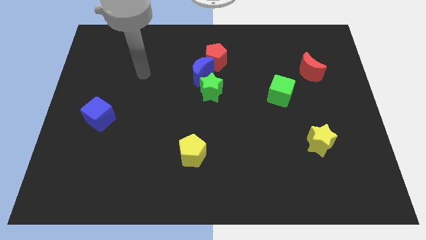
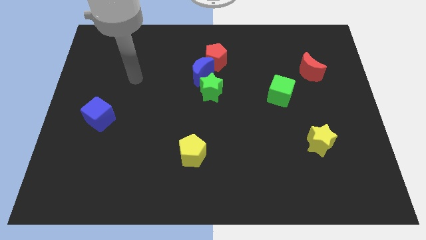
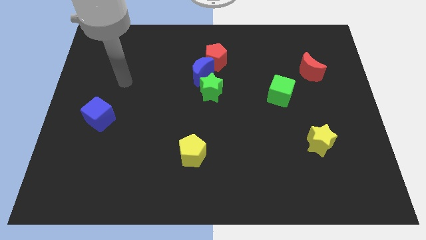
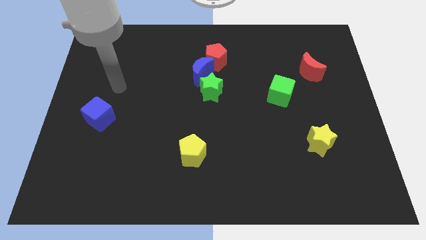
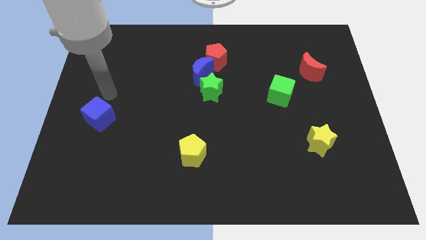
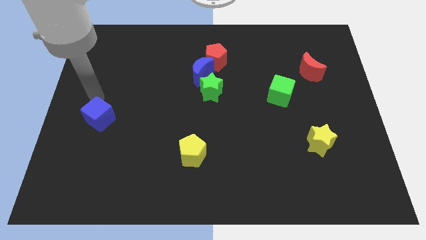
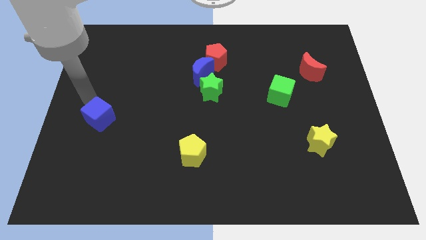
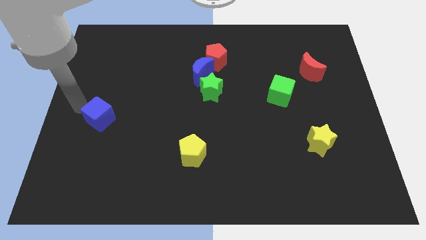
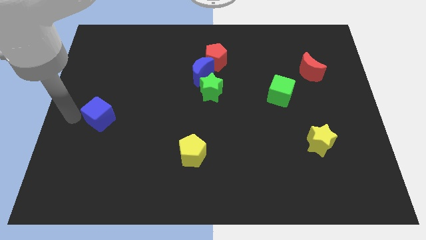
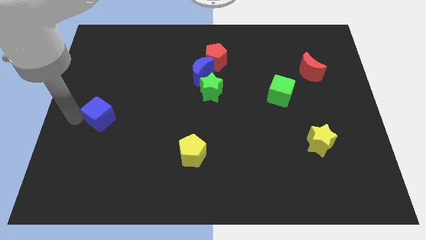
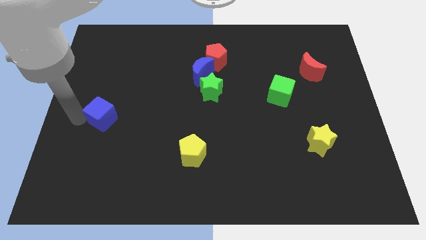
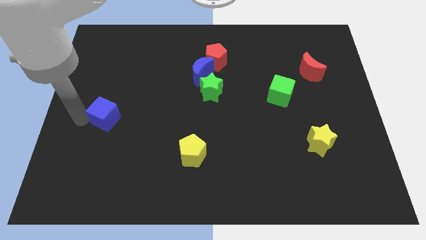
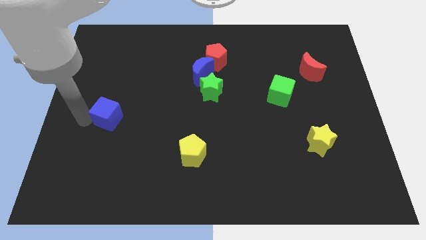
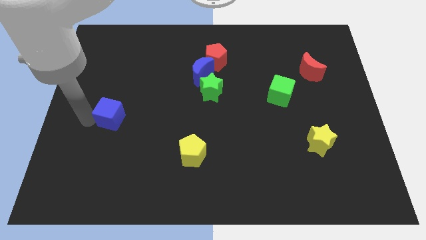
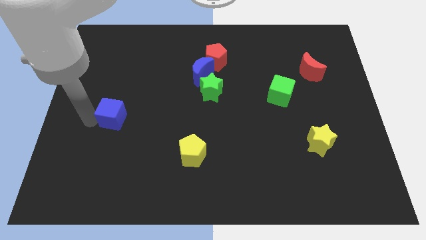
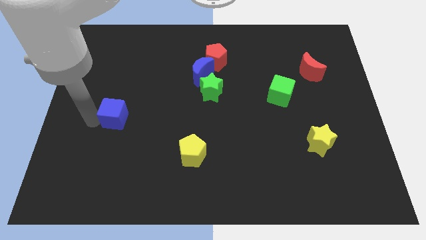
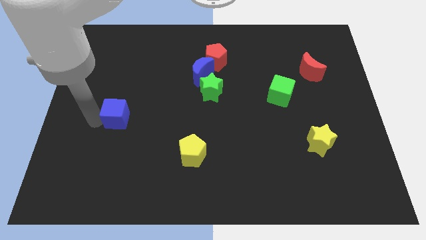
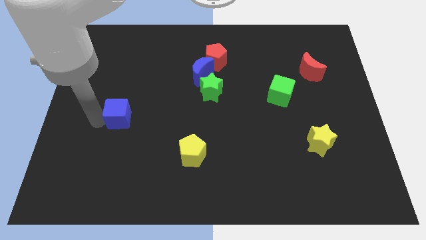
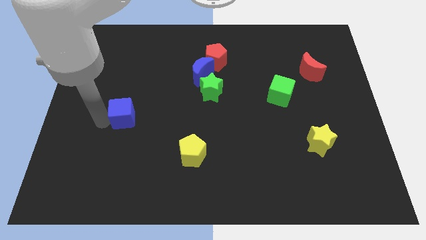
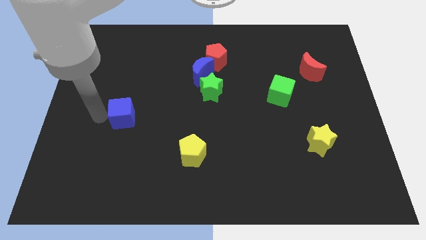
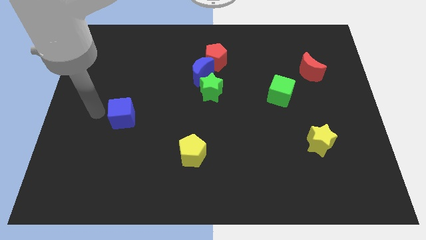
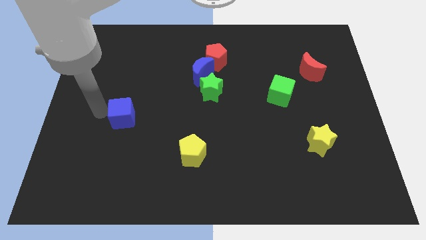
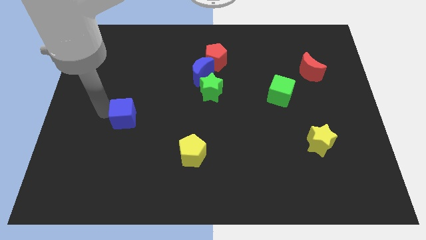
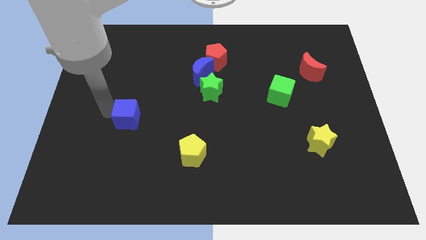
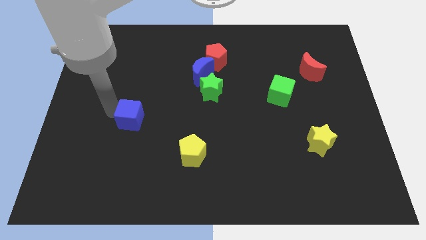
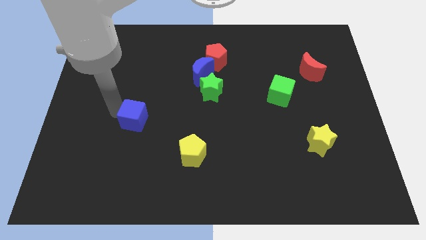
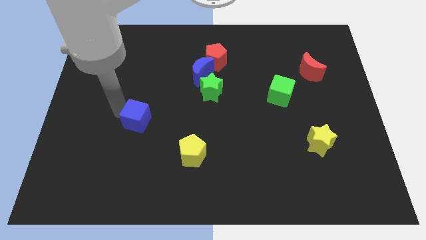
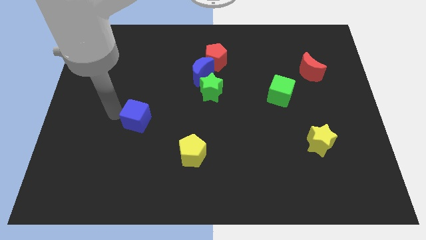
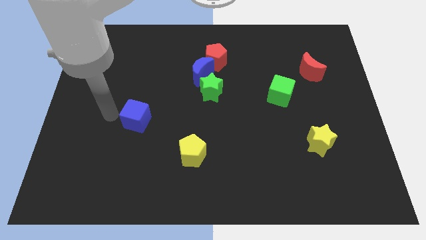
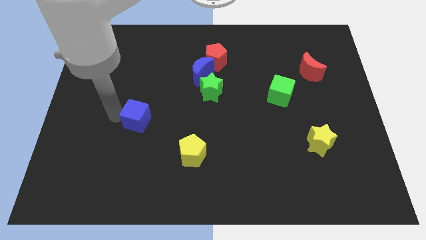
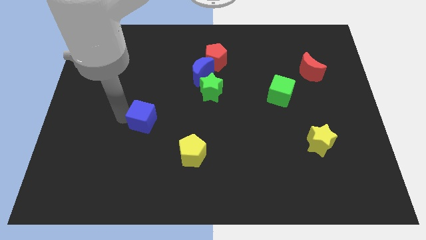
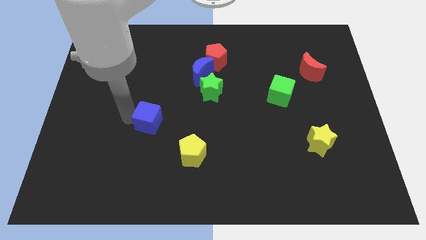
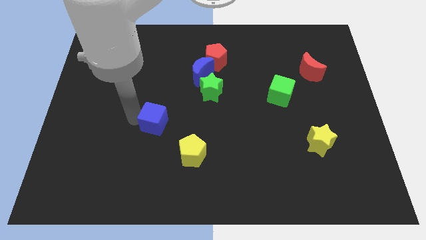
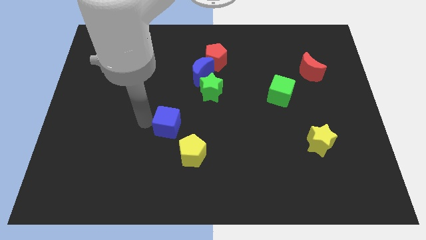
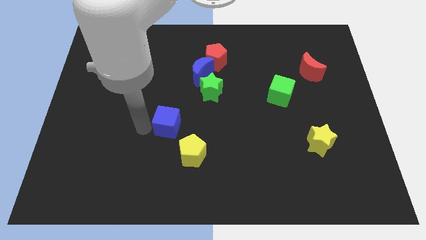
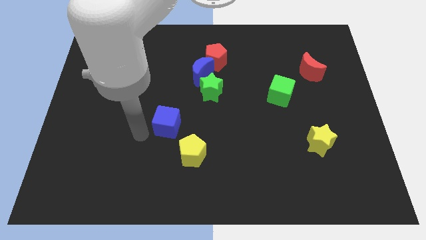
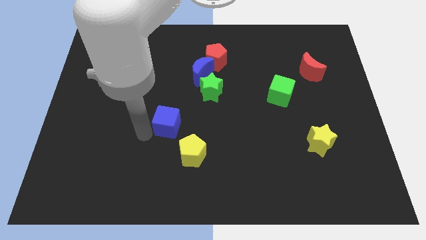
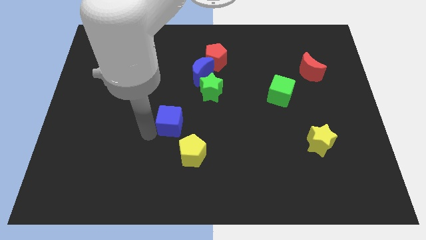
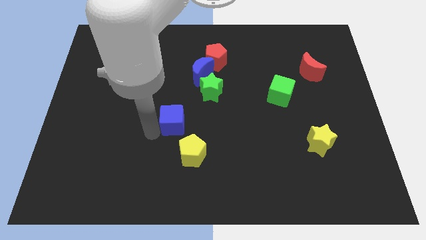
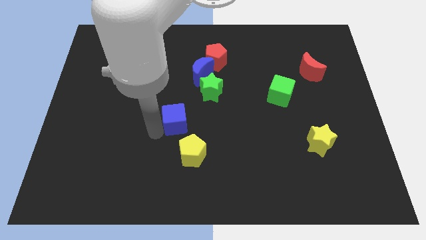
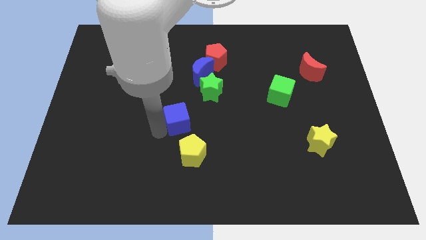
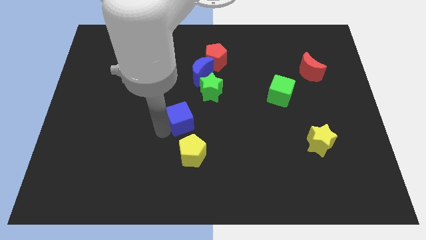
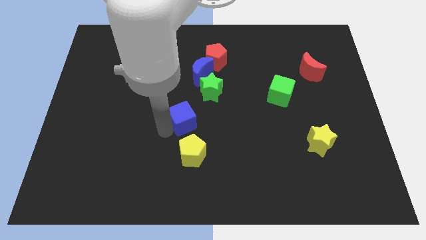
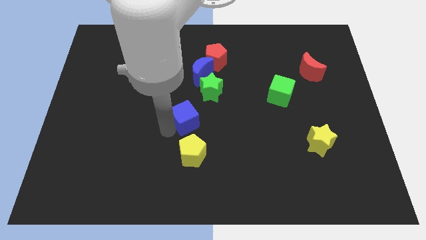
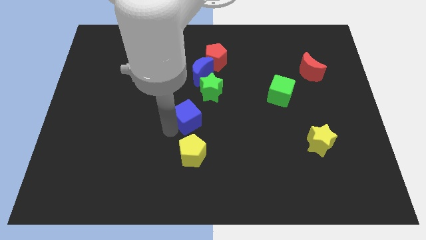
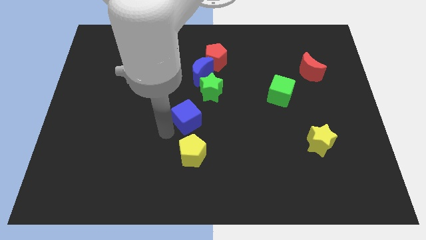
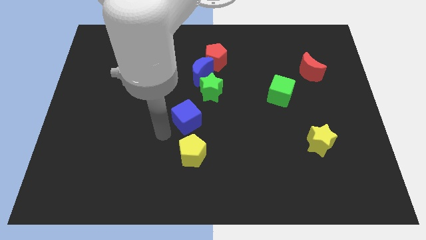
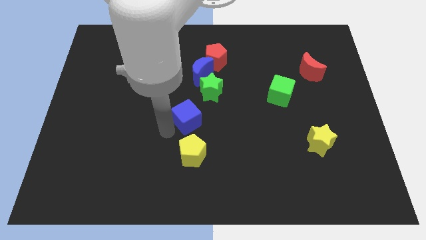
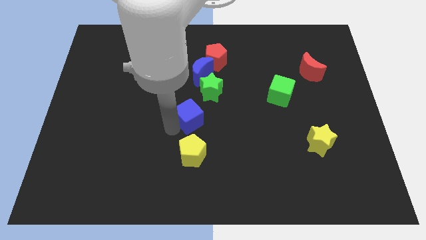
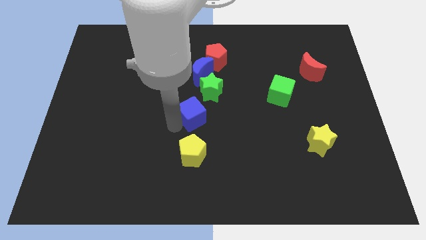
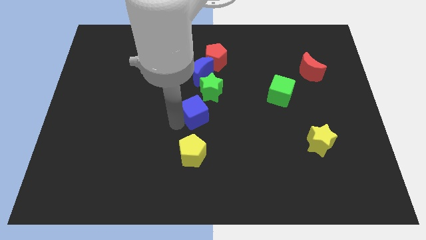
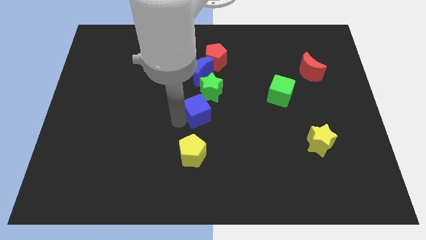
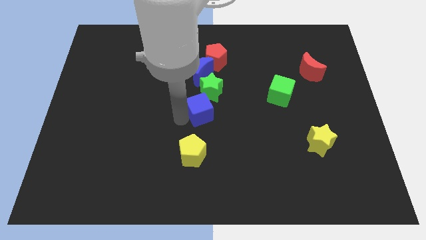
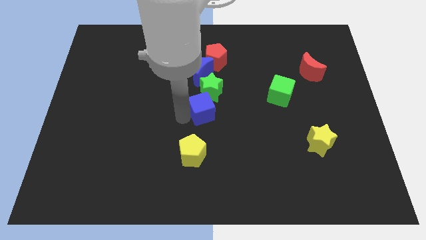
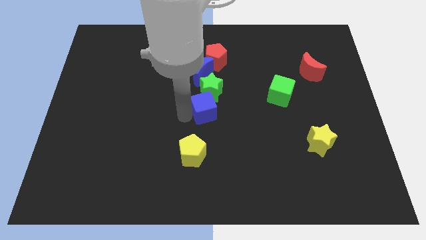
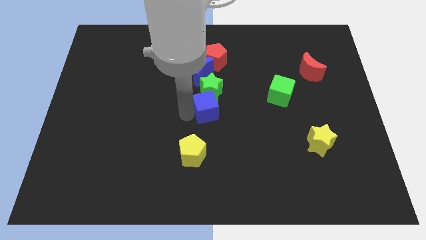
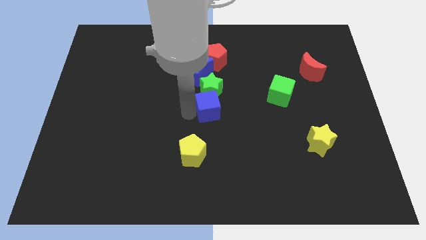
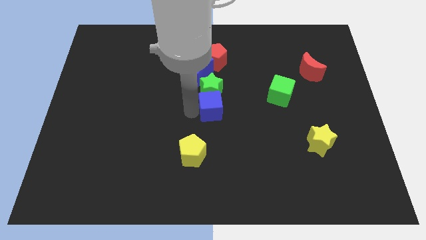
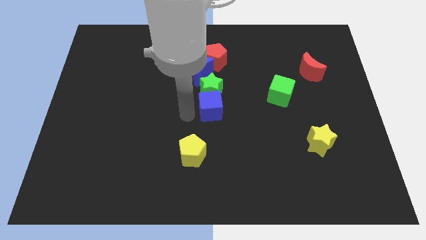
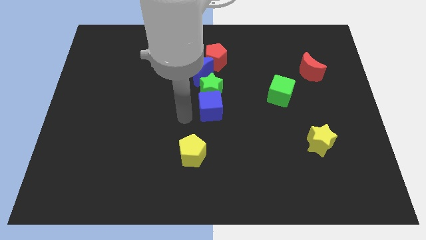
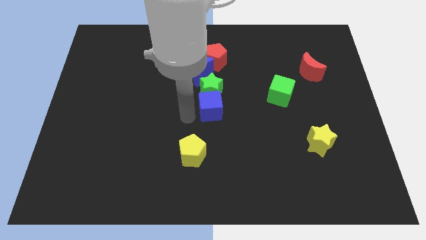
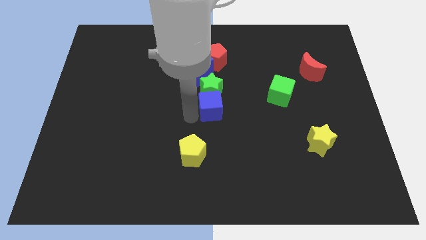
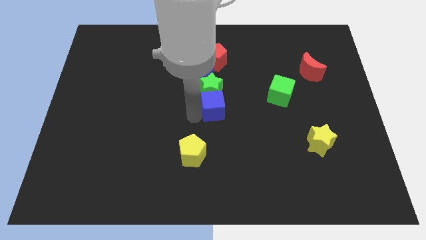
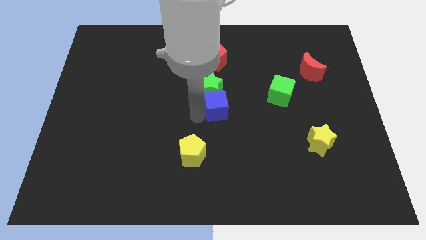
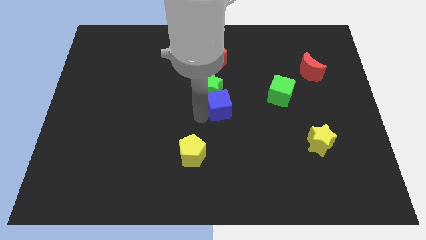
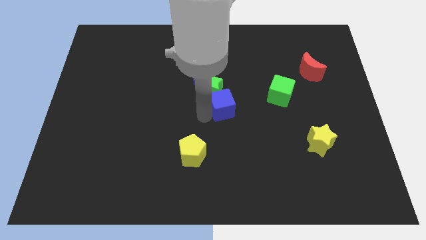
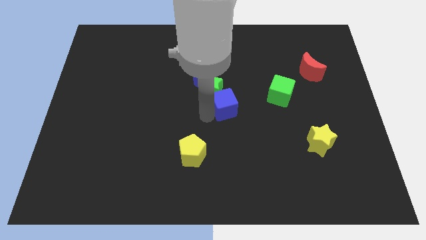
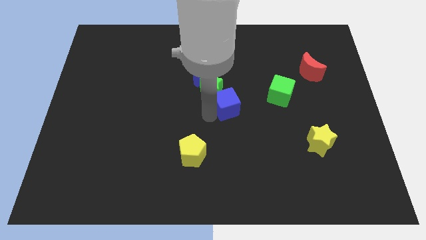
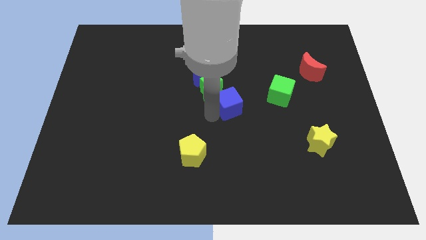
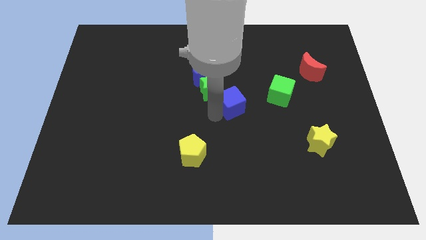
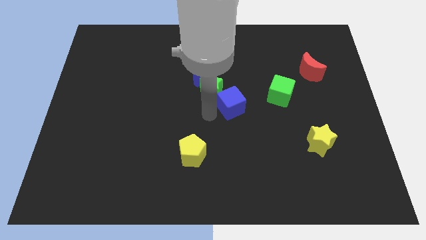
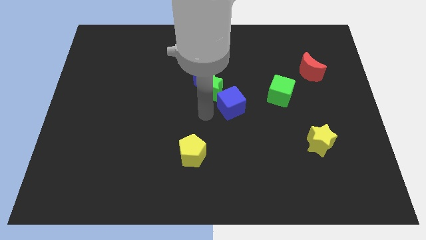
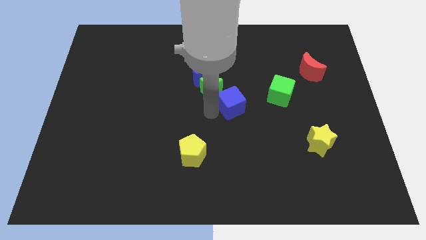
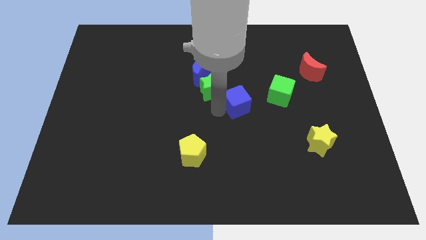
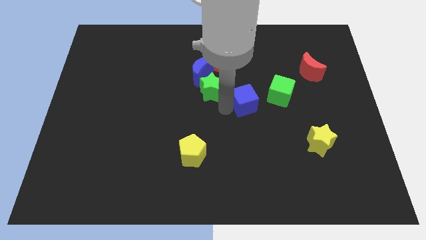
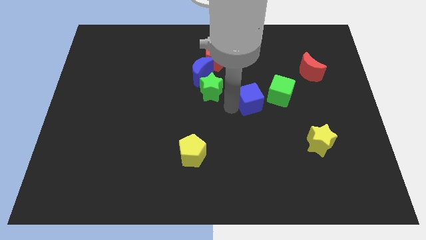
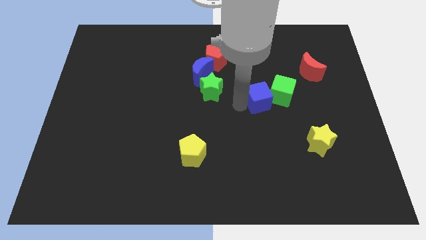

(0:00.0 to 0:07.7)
push the blue cube next to the green cube

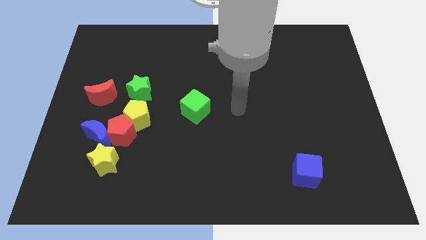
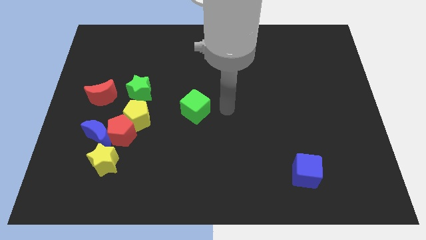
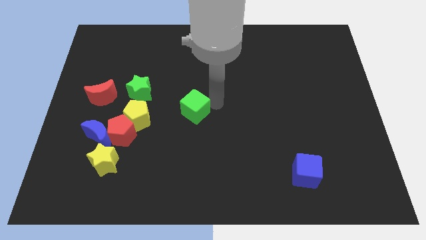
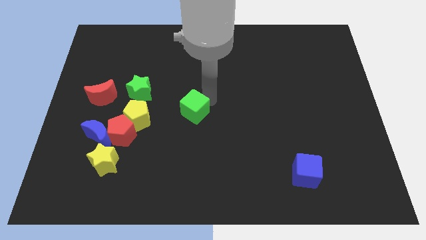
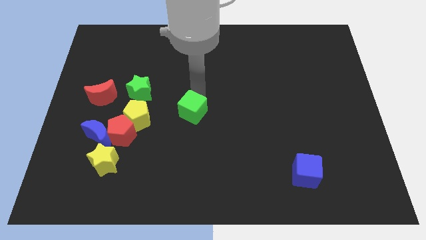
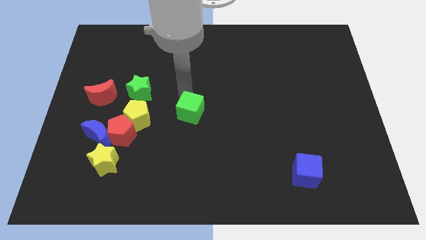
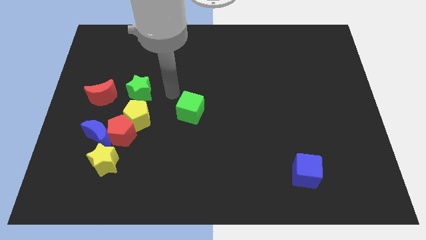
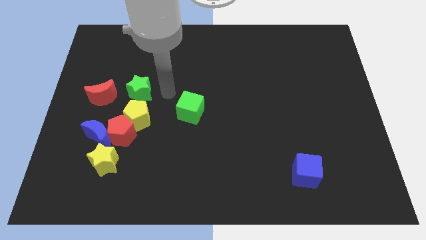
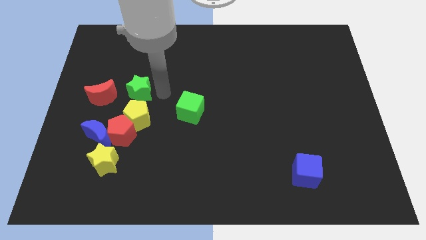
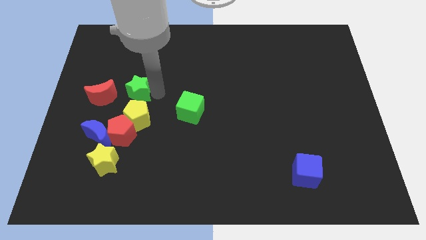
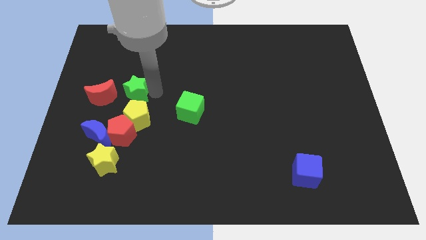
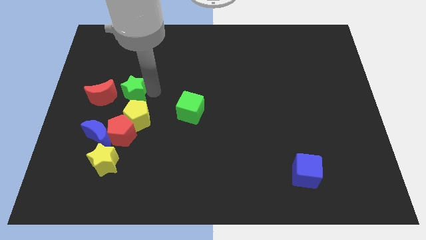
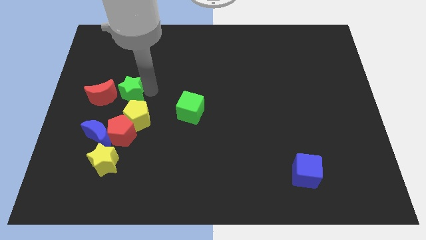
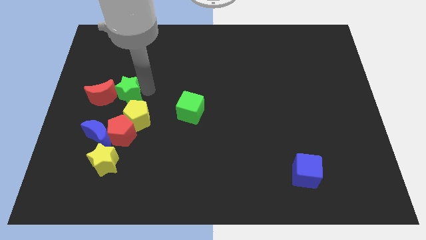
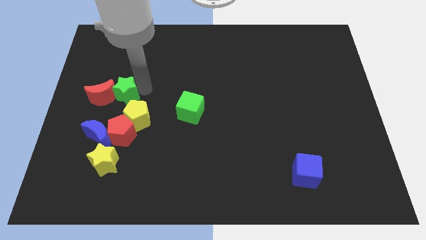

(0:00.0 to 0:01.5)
move the green star towards the red moon
